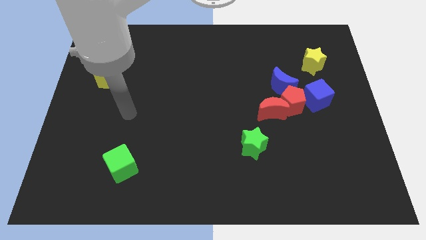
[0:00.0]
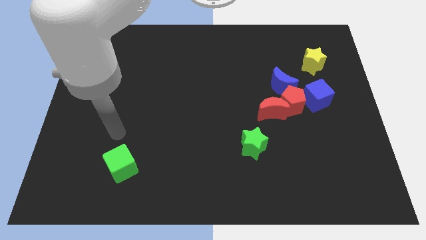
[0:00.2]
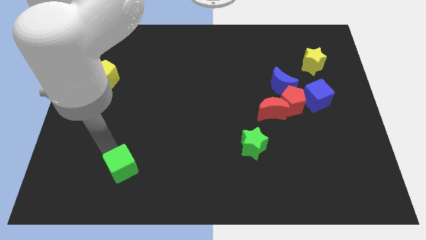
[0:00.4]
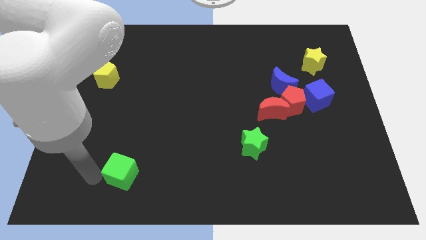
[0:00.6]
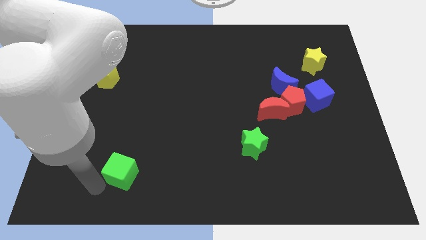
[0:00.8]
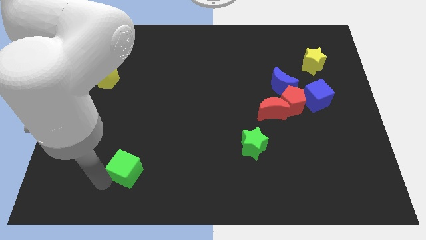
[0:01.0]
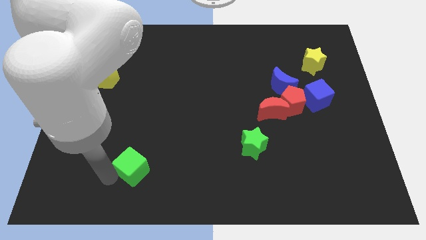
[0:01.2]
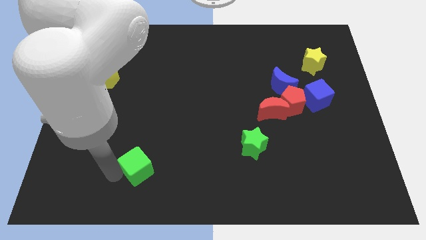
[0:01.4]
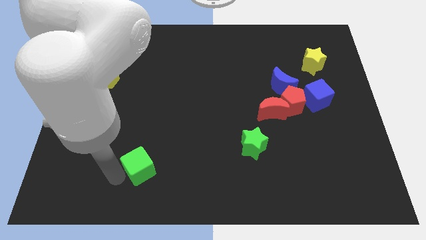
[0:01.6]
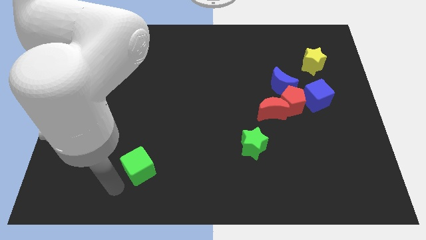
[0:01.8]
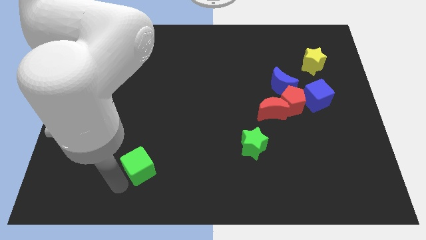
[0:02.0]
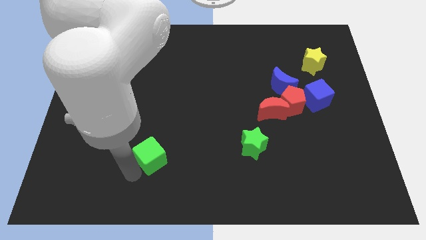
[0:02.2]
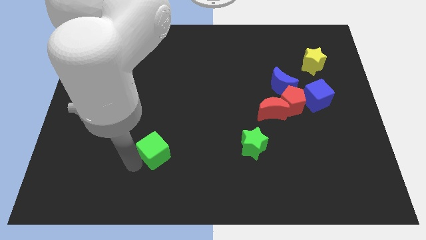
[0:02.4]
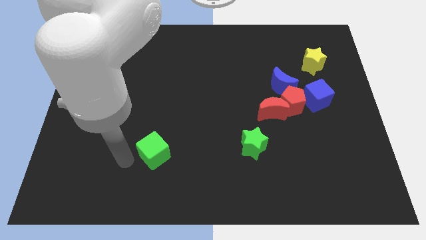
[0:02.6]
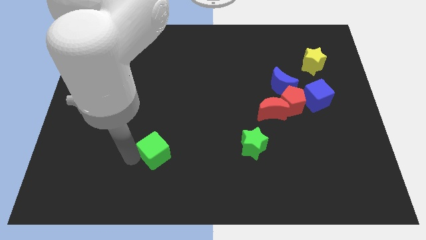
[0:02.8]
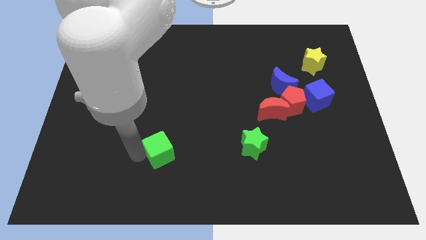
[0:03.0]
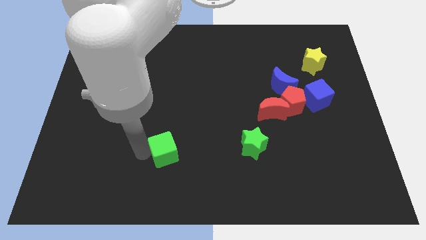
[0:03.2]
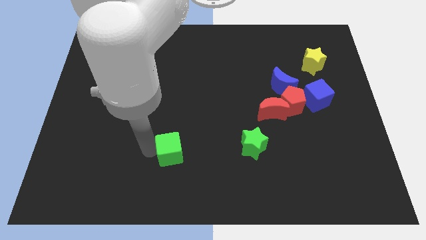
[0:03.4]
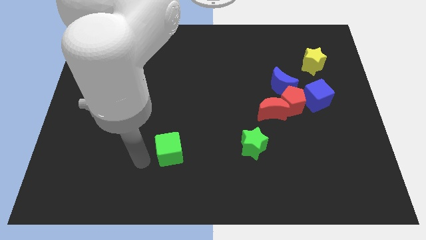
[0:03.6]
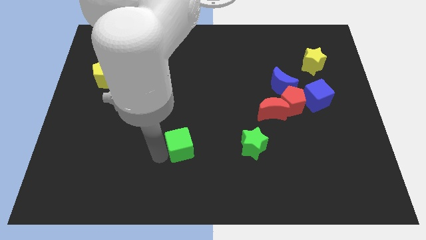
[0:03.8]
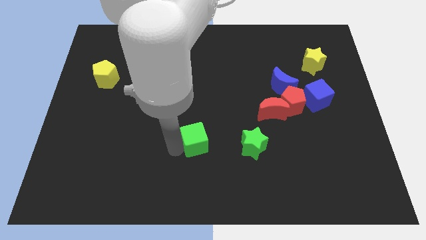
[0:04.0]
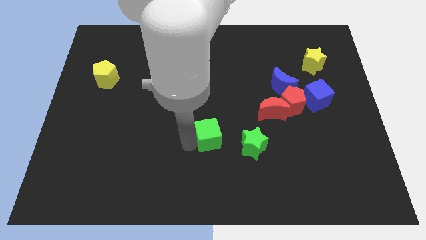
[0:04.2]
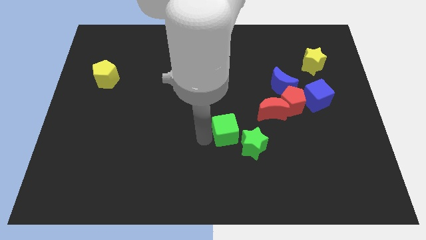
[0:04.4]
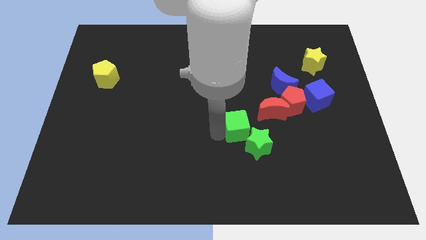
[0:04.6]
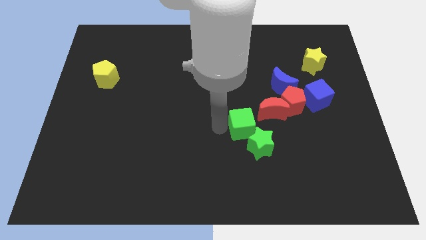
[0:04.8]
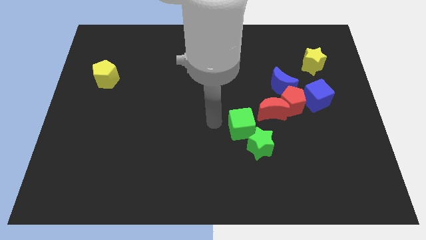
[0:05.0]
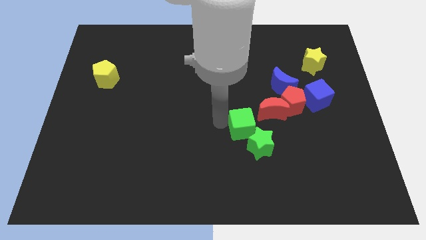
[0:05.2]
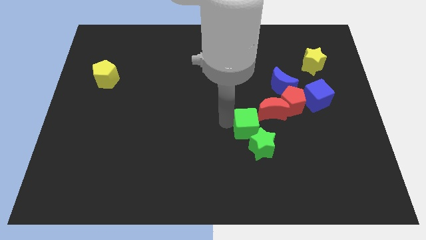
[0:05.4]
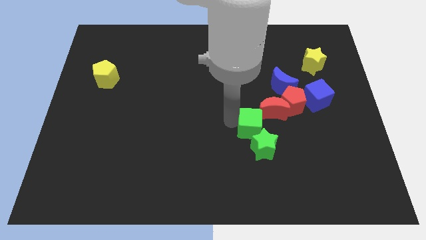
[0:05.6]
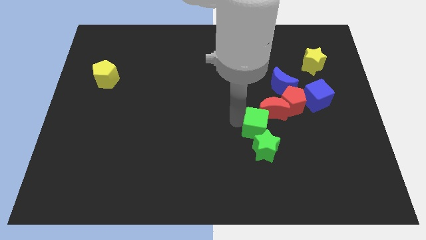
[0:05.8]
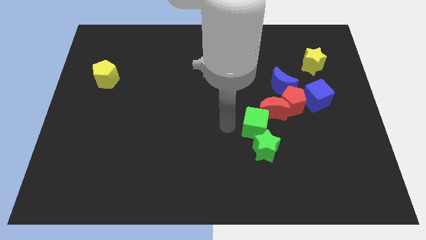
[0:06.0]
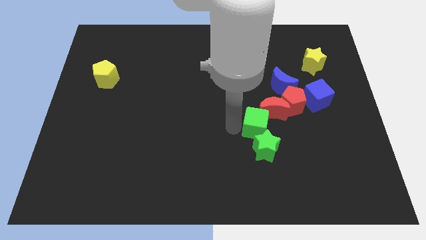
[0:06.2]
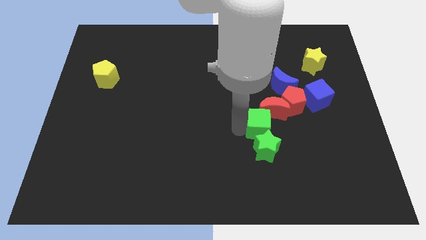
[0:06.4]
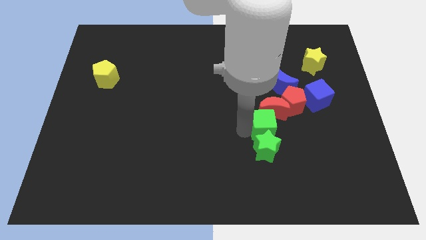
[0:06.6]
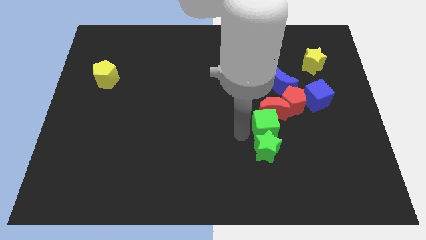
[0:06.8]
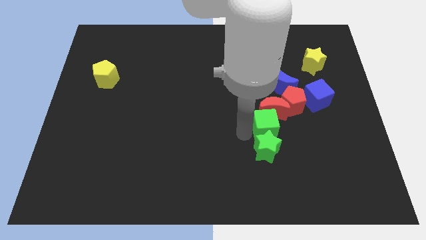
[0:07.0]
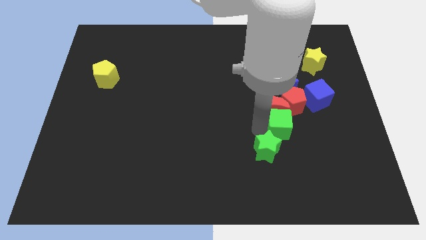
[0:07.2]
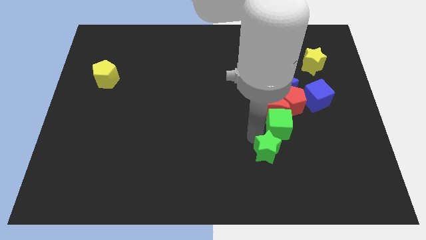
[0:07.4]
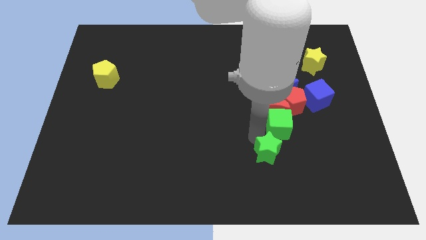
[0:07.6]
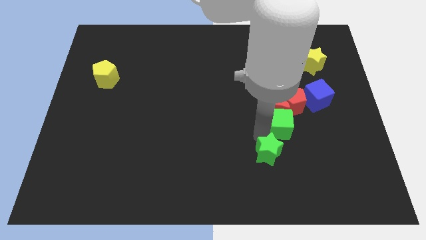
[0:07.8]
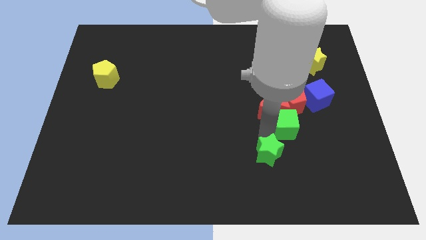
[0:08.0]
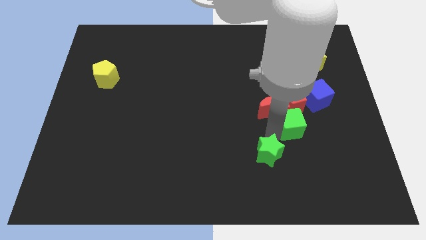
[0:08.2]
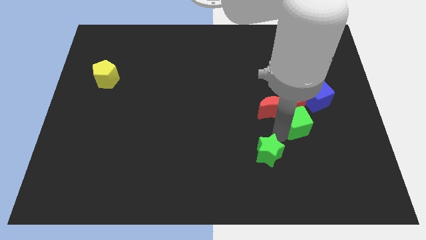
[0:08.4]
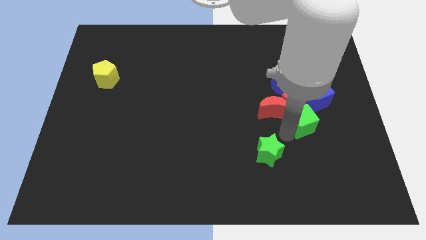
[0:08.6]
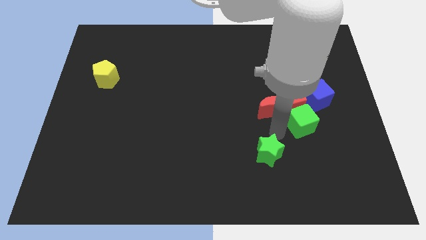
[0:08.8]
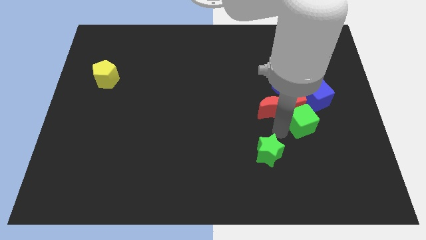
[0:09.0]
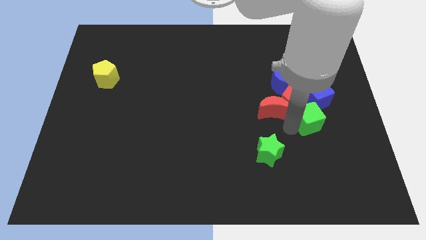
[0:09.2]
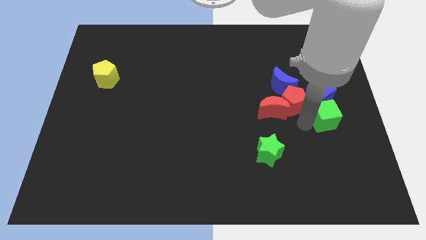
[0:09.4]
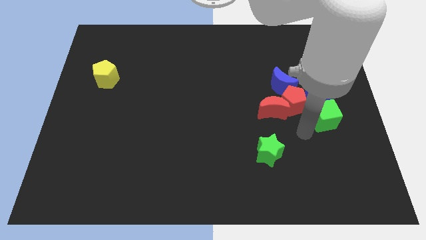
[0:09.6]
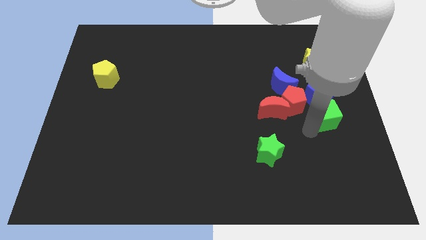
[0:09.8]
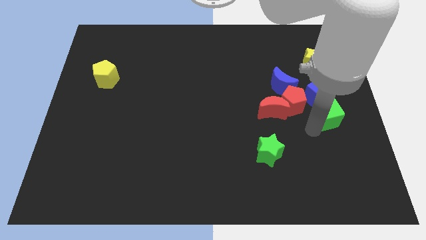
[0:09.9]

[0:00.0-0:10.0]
move the green cube to the right side of the board

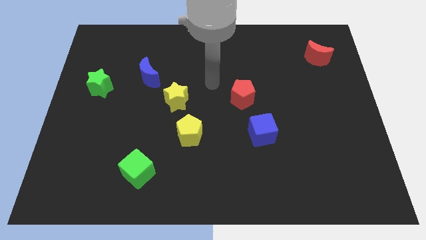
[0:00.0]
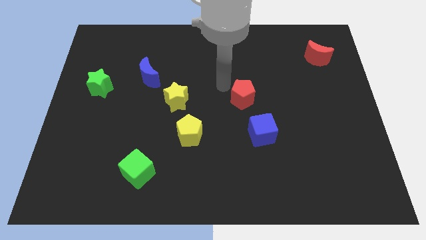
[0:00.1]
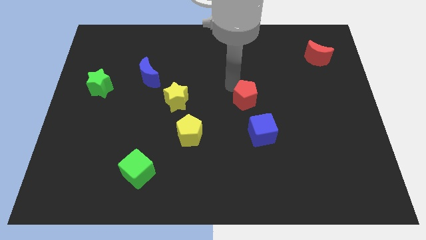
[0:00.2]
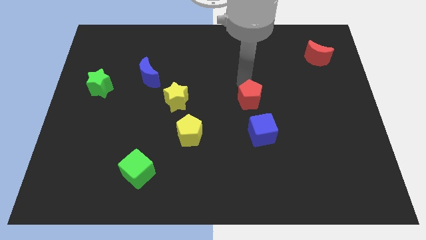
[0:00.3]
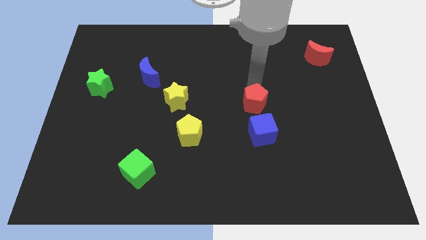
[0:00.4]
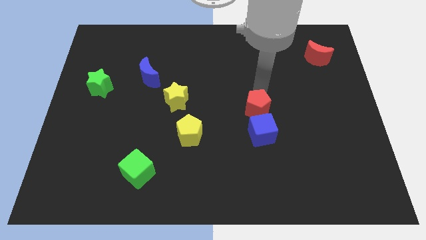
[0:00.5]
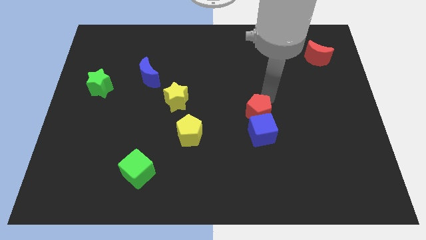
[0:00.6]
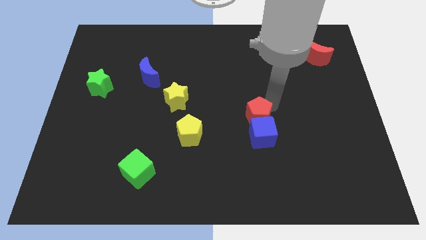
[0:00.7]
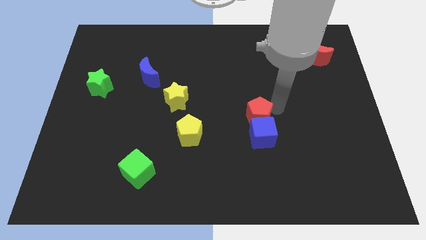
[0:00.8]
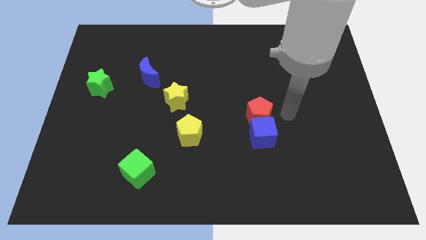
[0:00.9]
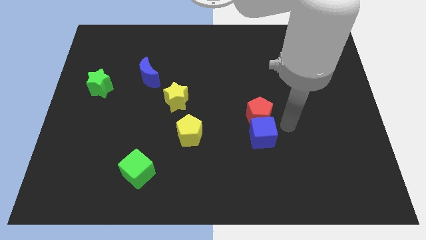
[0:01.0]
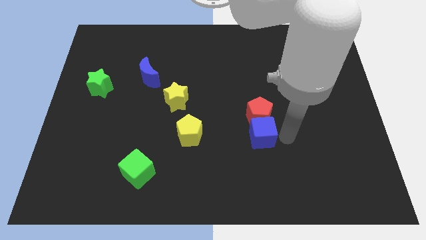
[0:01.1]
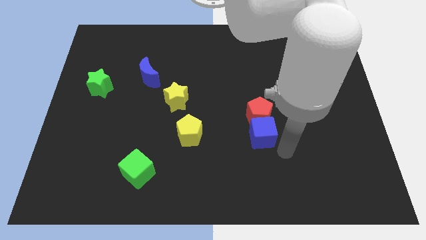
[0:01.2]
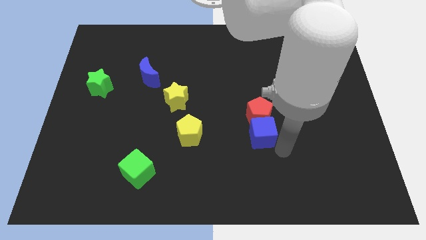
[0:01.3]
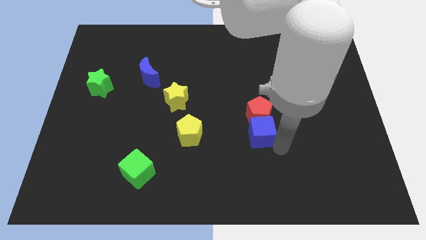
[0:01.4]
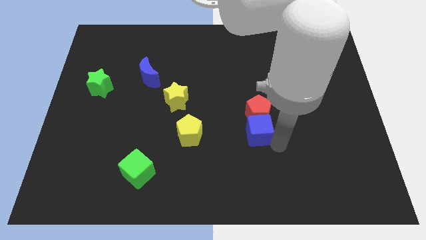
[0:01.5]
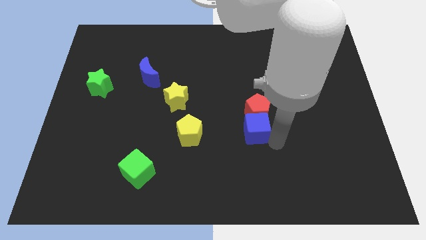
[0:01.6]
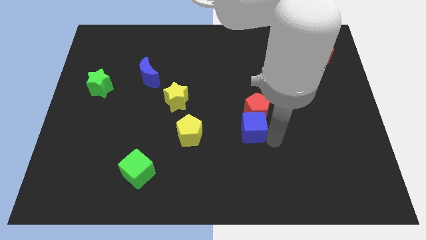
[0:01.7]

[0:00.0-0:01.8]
move the blue cube to the middle of the board

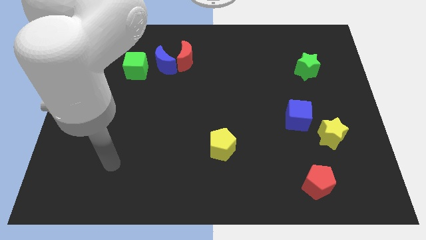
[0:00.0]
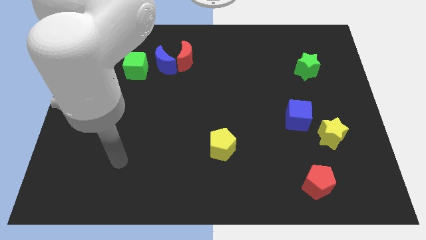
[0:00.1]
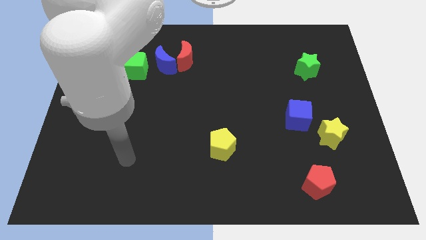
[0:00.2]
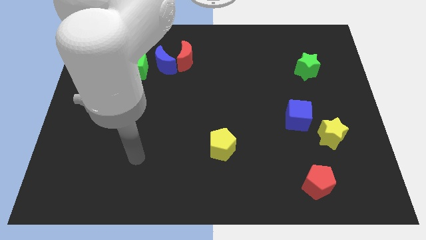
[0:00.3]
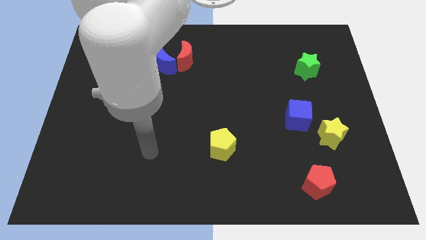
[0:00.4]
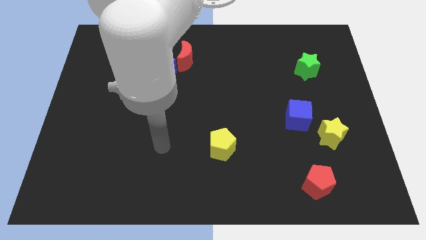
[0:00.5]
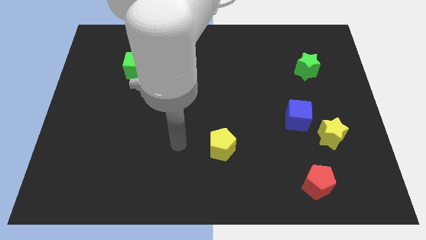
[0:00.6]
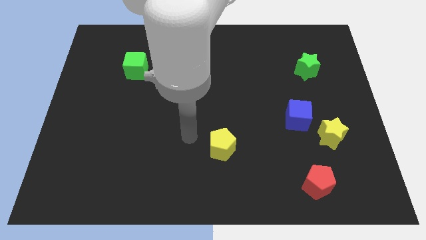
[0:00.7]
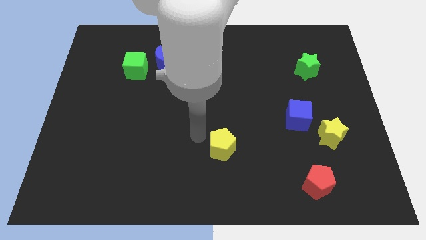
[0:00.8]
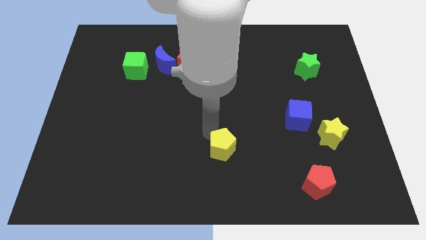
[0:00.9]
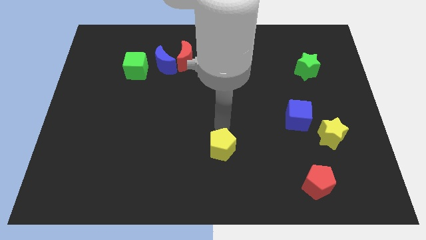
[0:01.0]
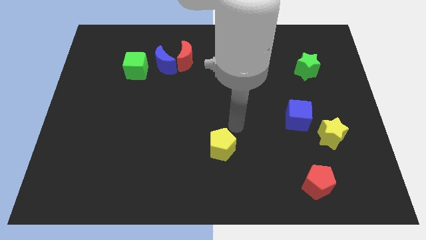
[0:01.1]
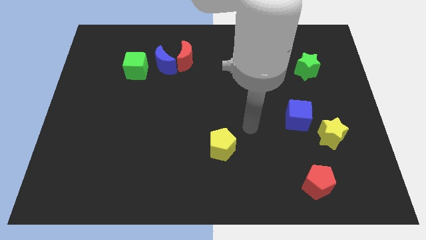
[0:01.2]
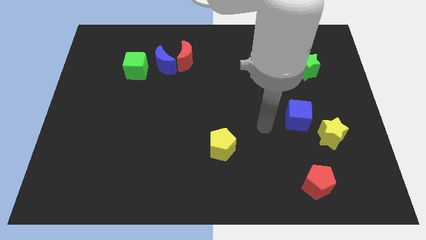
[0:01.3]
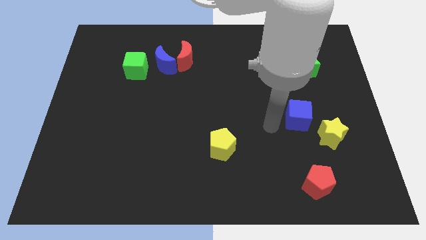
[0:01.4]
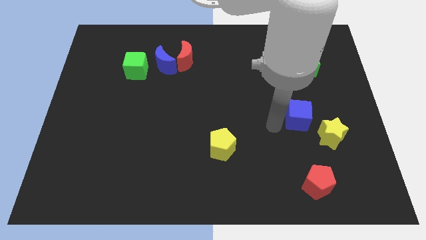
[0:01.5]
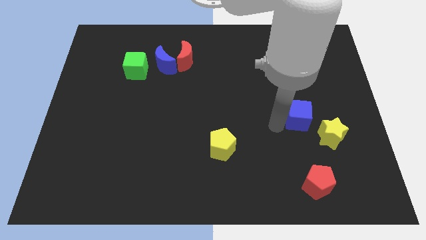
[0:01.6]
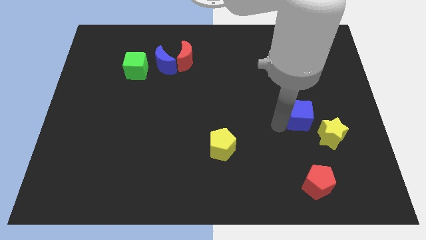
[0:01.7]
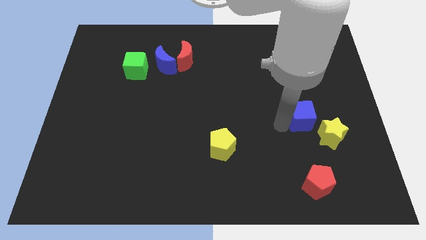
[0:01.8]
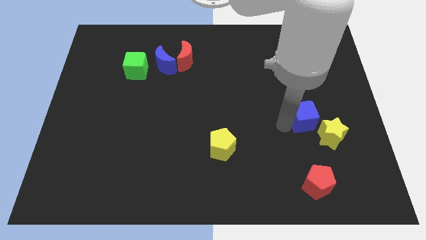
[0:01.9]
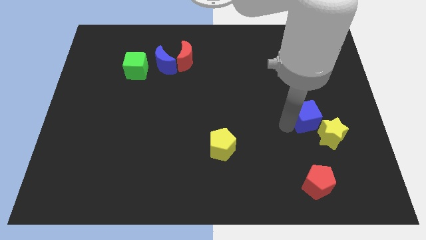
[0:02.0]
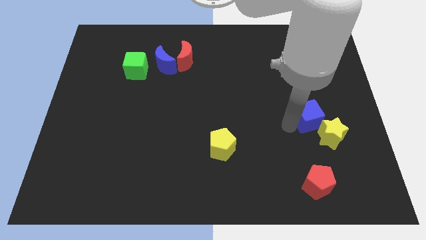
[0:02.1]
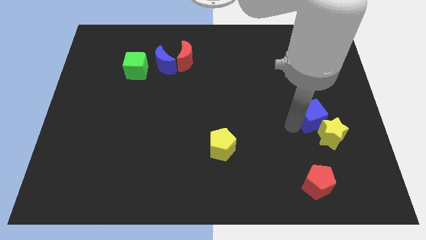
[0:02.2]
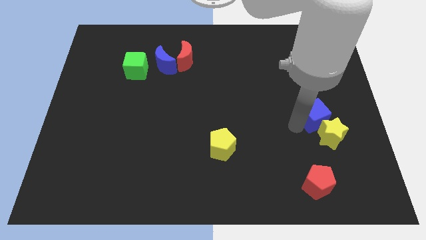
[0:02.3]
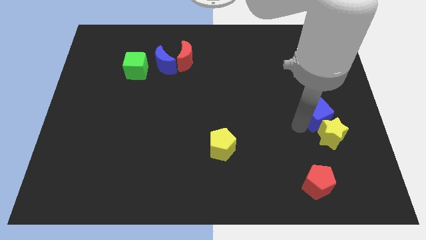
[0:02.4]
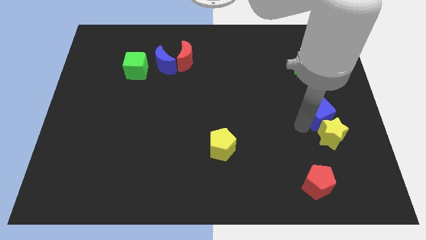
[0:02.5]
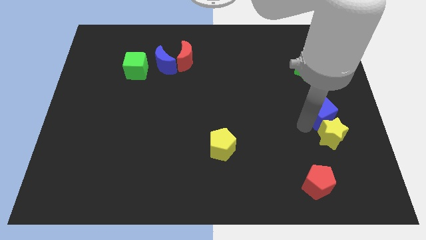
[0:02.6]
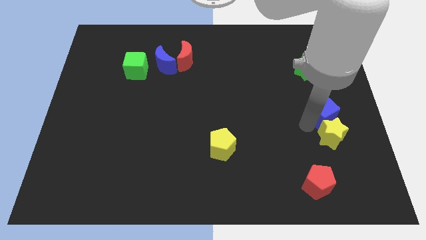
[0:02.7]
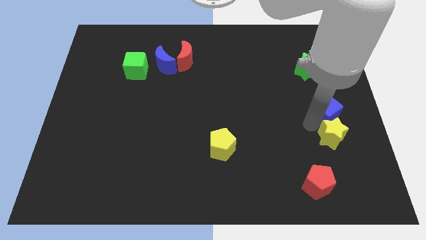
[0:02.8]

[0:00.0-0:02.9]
slide the blue cube to the right side
